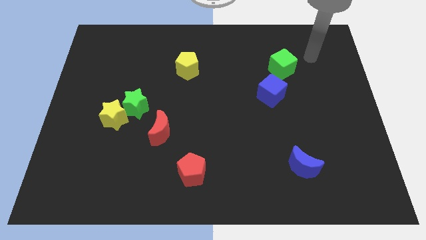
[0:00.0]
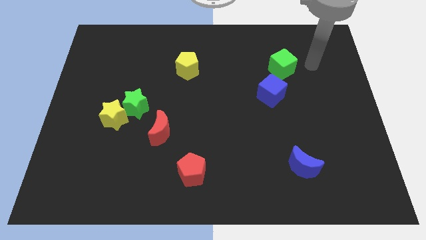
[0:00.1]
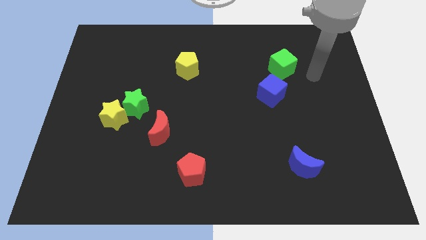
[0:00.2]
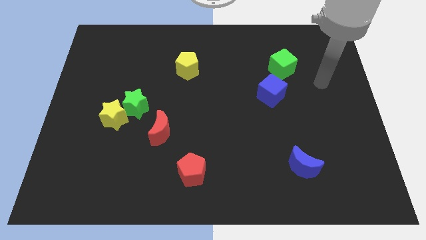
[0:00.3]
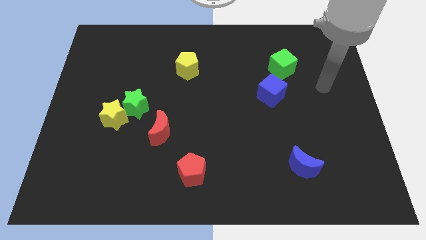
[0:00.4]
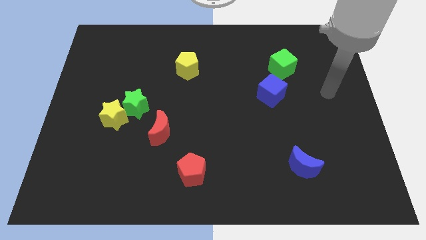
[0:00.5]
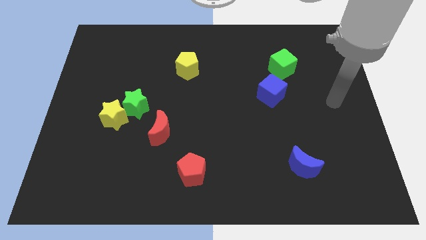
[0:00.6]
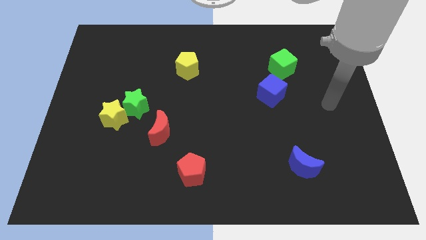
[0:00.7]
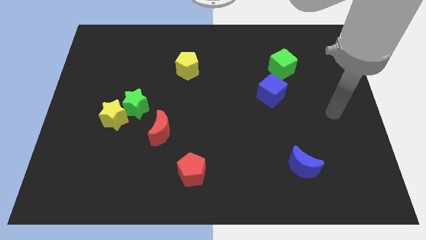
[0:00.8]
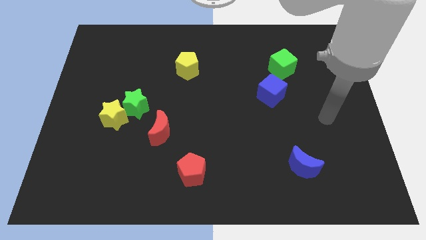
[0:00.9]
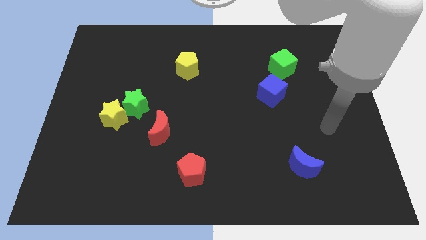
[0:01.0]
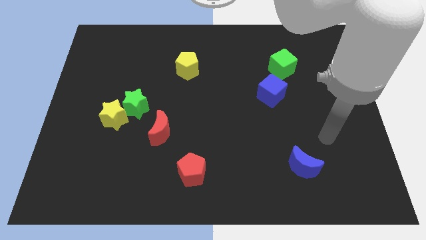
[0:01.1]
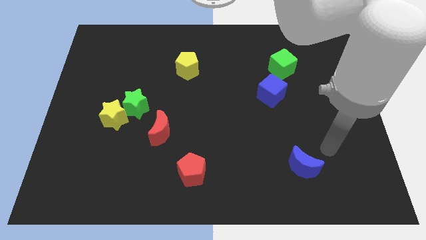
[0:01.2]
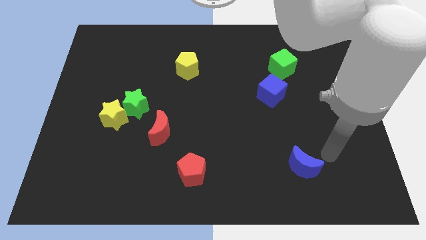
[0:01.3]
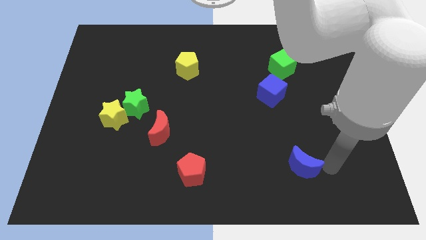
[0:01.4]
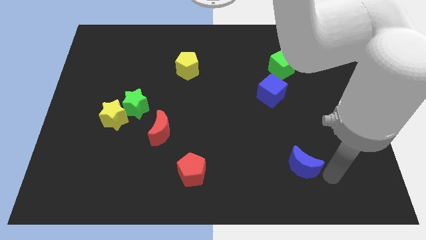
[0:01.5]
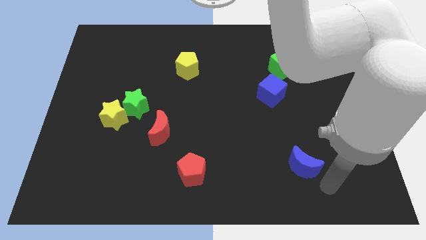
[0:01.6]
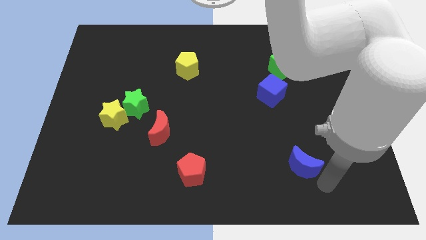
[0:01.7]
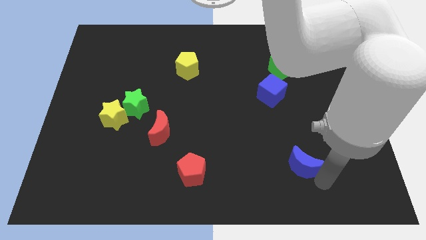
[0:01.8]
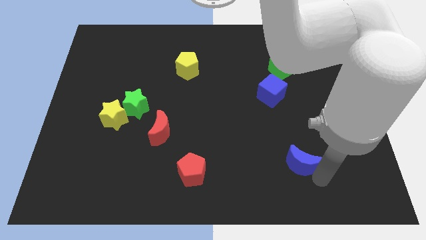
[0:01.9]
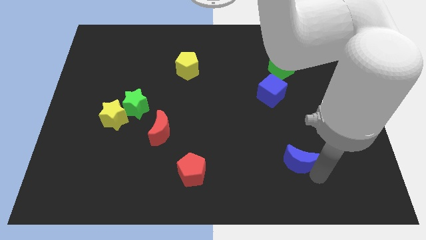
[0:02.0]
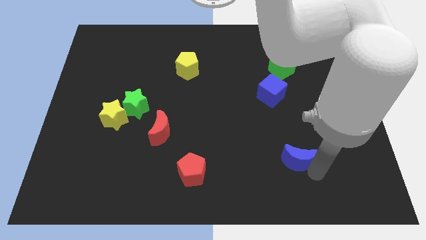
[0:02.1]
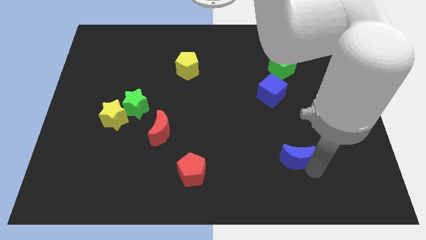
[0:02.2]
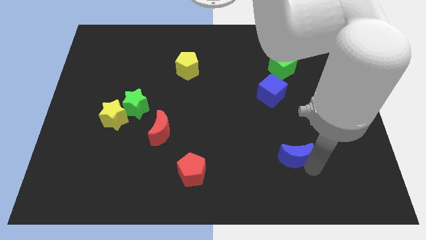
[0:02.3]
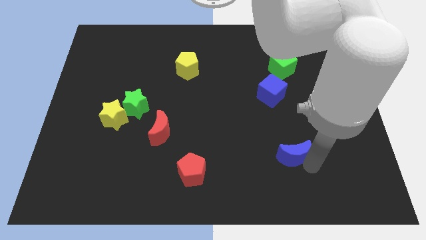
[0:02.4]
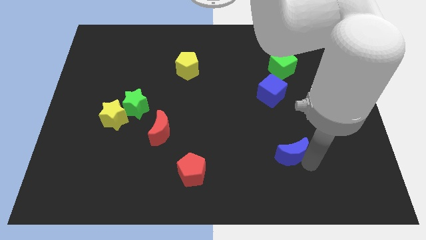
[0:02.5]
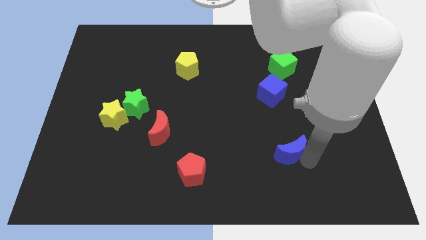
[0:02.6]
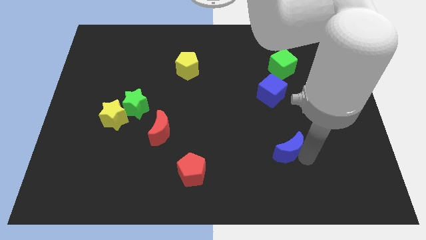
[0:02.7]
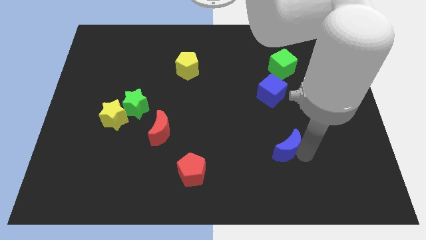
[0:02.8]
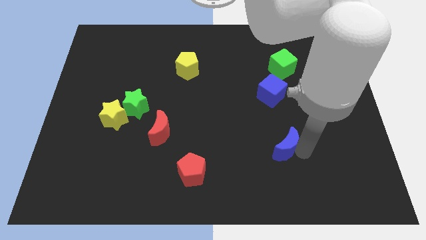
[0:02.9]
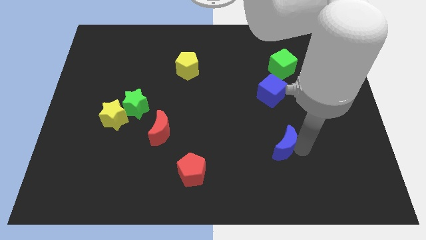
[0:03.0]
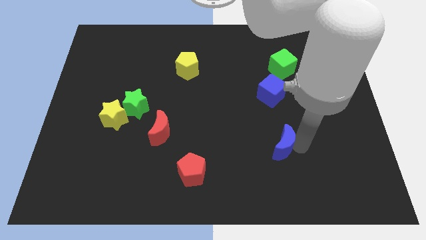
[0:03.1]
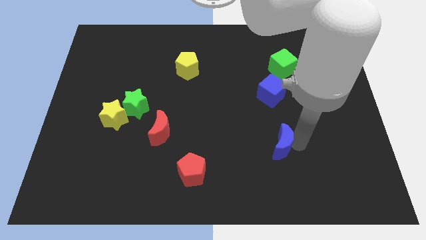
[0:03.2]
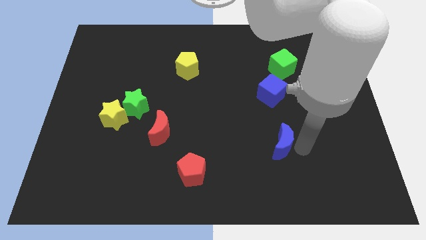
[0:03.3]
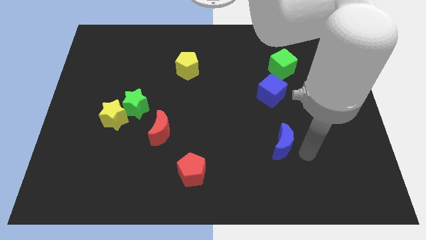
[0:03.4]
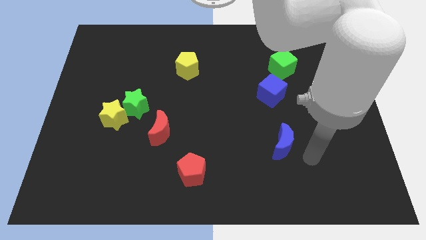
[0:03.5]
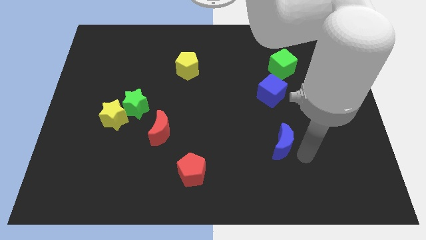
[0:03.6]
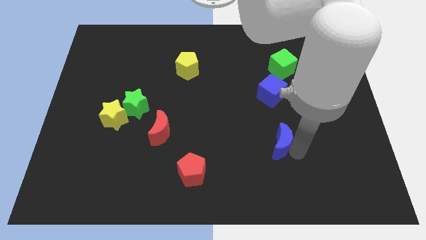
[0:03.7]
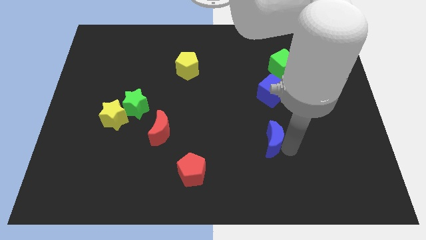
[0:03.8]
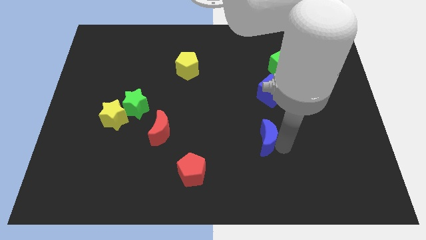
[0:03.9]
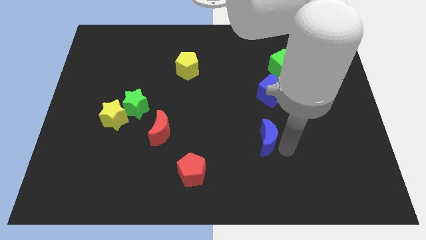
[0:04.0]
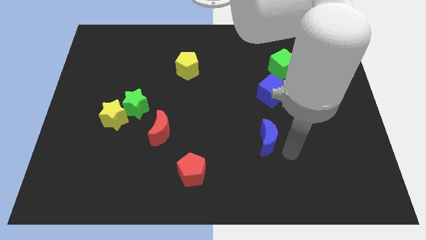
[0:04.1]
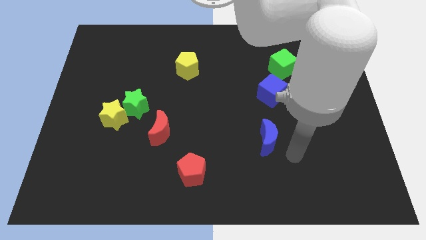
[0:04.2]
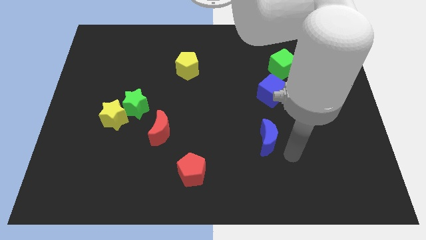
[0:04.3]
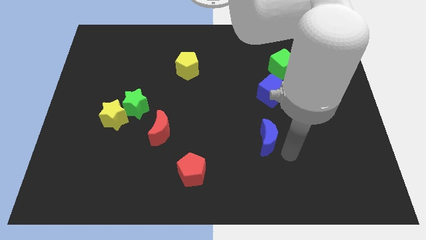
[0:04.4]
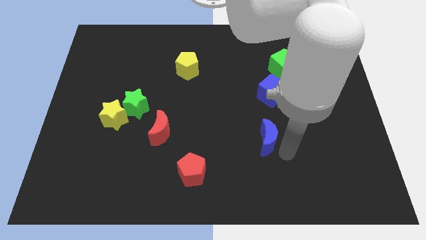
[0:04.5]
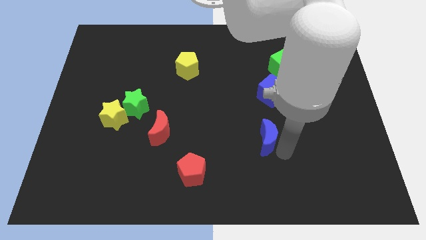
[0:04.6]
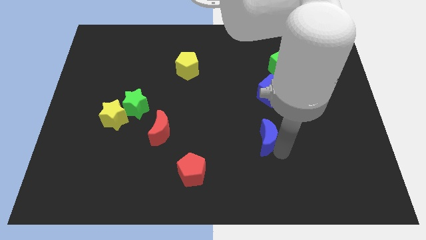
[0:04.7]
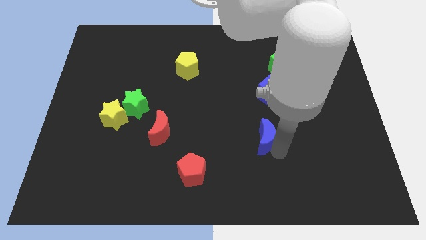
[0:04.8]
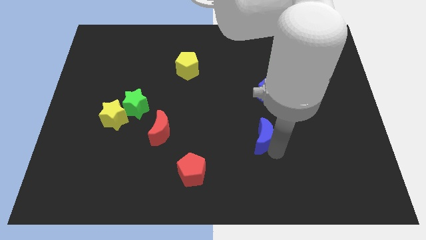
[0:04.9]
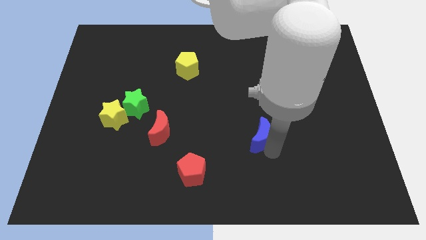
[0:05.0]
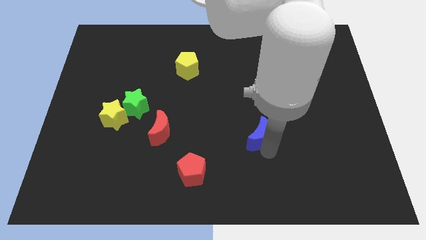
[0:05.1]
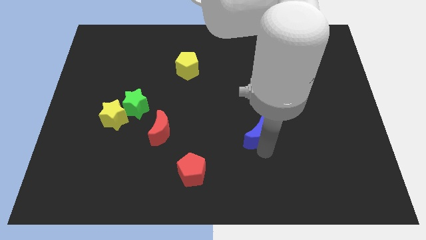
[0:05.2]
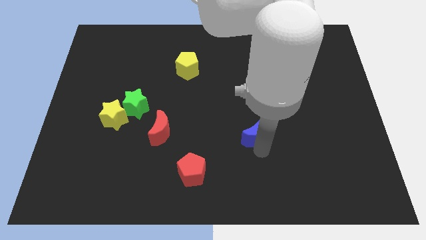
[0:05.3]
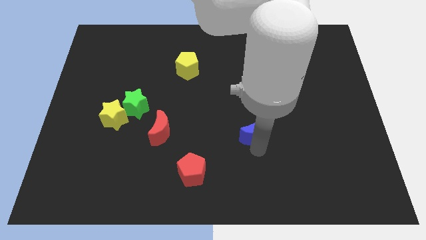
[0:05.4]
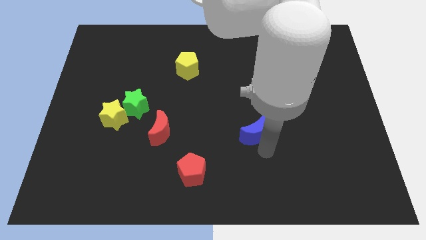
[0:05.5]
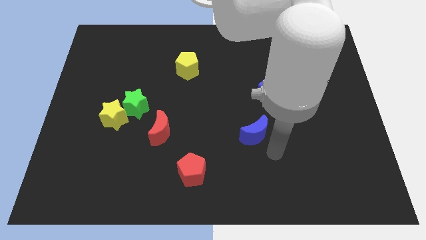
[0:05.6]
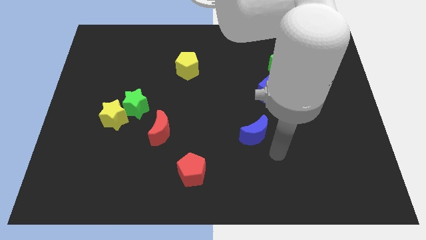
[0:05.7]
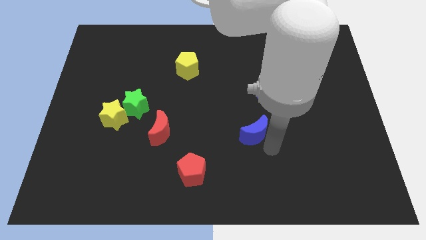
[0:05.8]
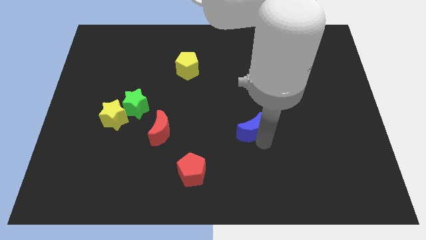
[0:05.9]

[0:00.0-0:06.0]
move the blue moon to the center of the board
